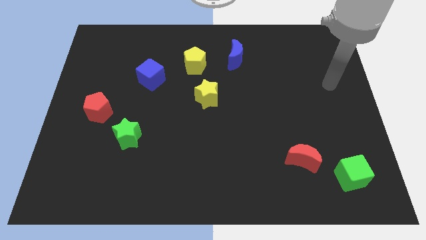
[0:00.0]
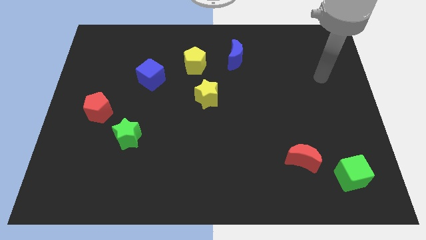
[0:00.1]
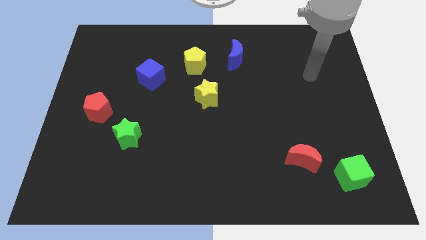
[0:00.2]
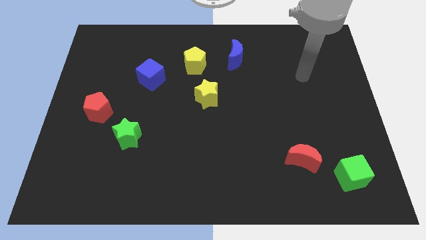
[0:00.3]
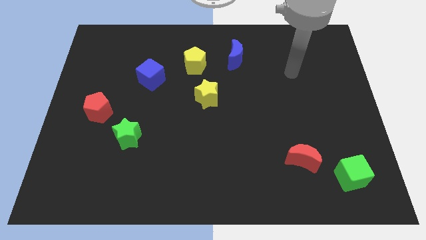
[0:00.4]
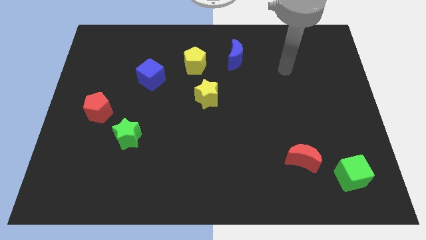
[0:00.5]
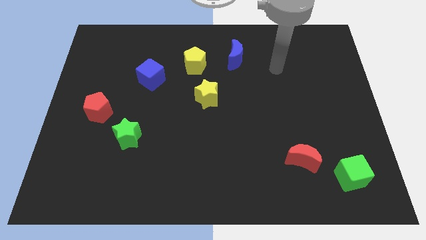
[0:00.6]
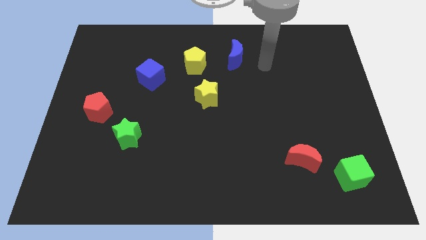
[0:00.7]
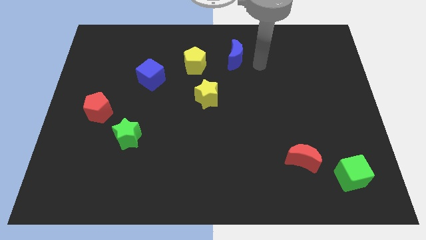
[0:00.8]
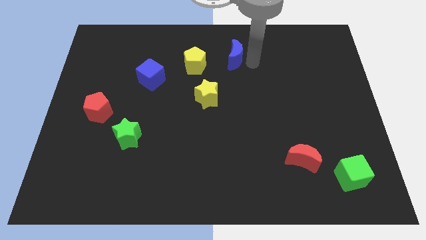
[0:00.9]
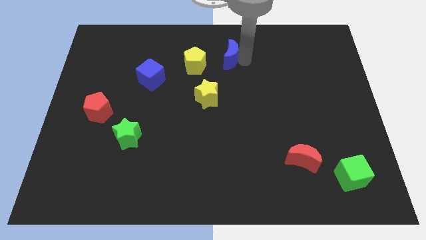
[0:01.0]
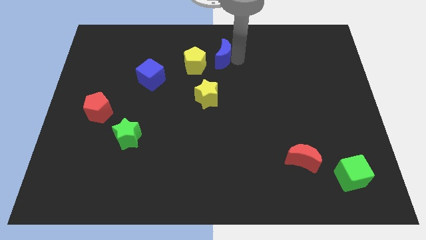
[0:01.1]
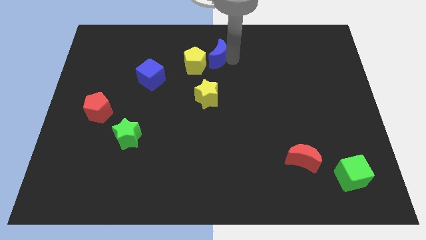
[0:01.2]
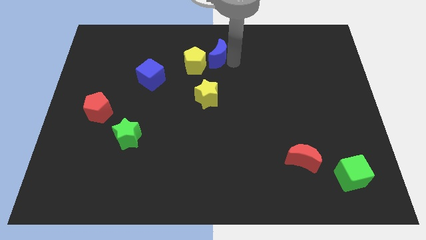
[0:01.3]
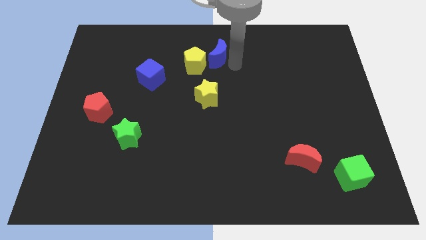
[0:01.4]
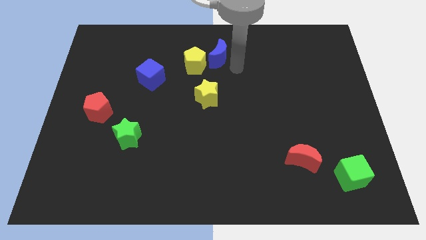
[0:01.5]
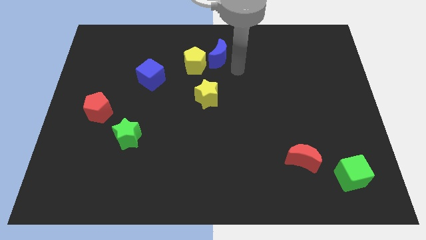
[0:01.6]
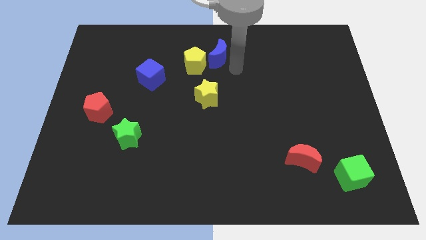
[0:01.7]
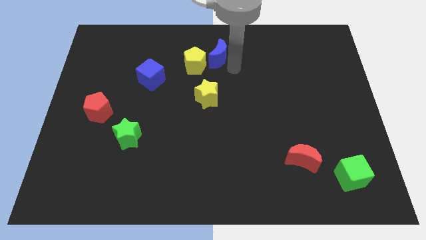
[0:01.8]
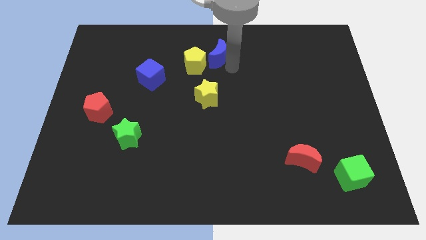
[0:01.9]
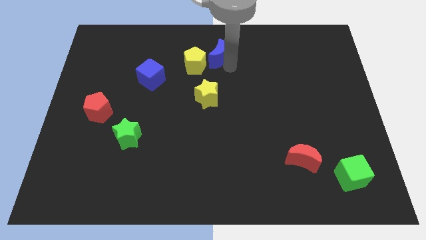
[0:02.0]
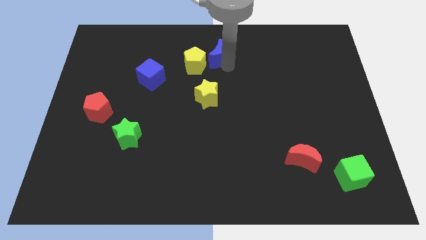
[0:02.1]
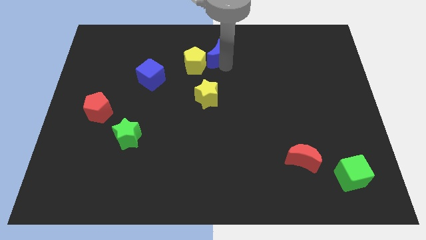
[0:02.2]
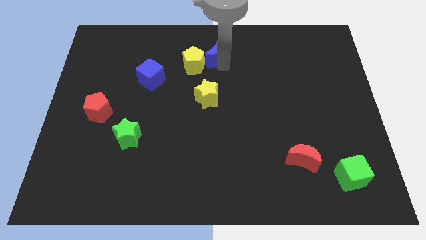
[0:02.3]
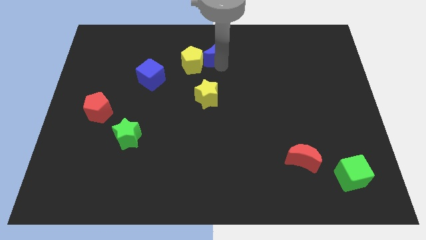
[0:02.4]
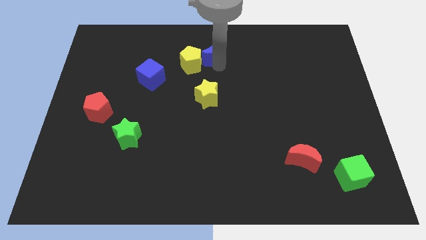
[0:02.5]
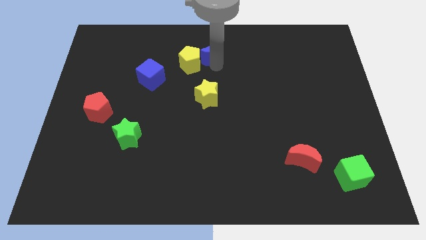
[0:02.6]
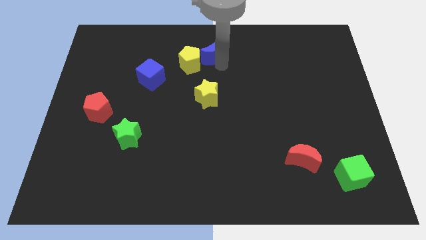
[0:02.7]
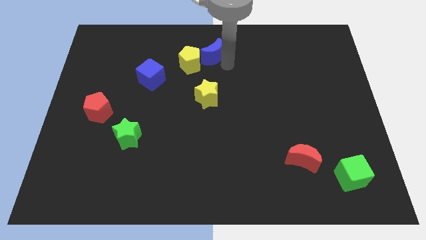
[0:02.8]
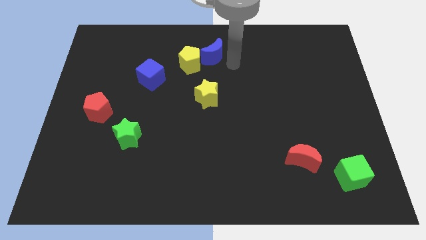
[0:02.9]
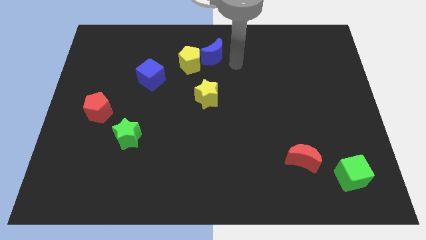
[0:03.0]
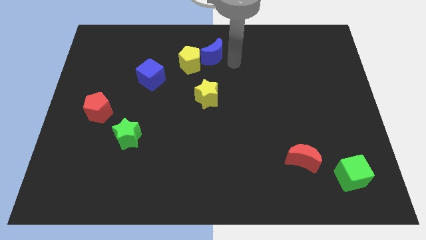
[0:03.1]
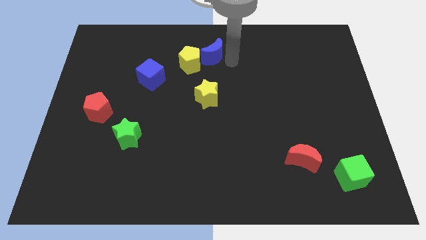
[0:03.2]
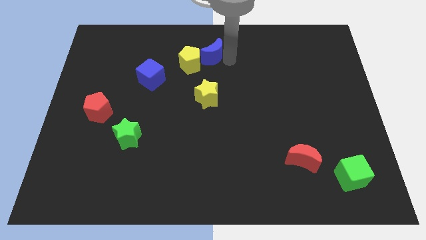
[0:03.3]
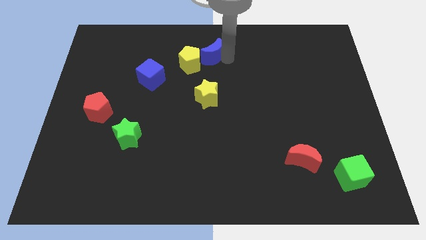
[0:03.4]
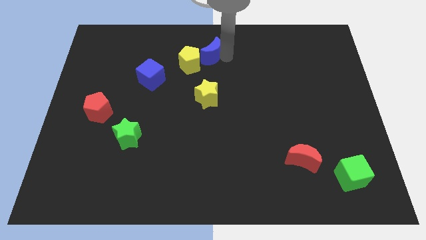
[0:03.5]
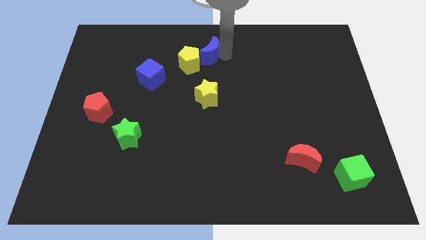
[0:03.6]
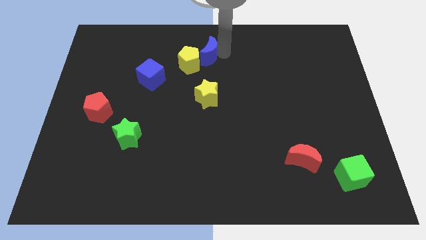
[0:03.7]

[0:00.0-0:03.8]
slightly push the blue moon left

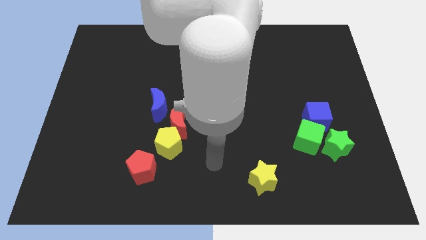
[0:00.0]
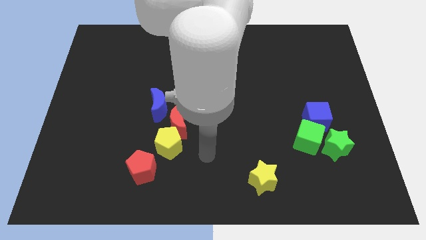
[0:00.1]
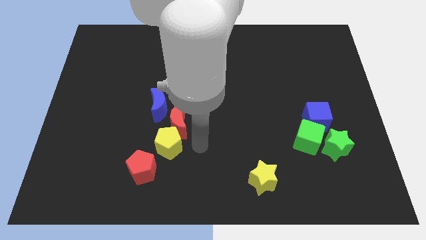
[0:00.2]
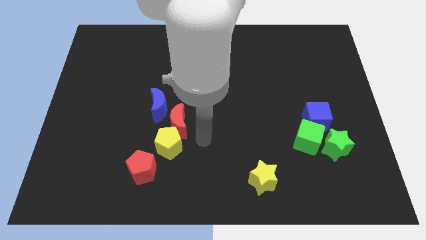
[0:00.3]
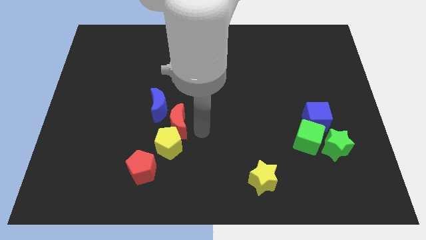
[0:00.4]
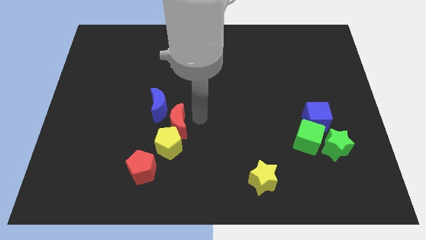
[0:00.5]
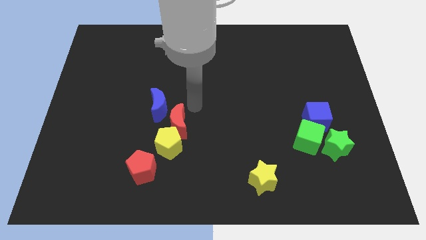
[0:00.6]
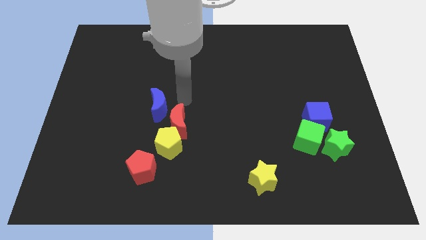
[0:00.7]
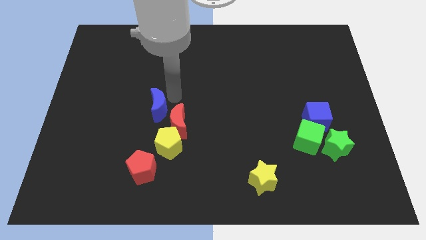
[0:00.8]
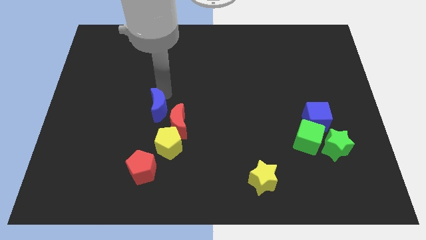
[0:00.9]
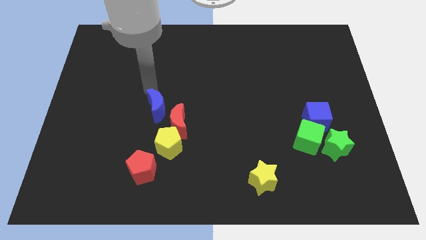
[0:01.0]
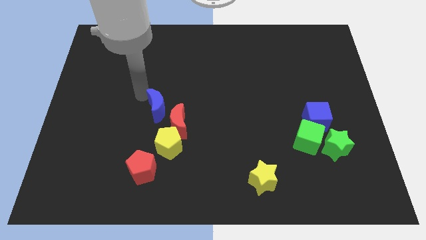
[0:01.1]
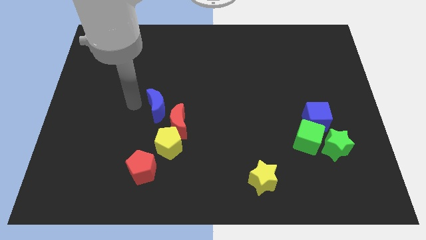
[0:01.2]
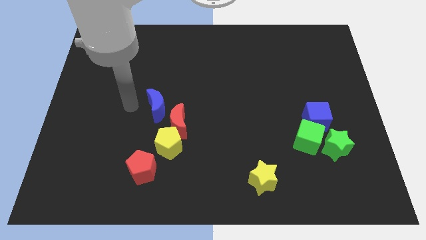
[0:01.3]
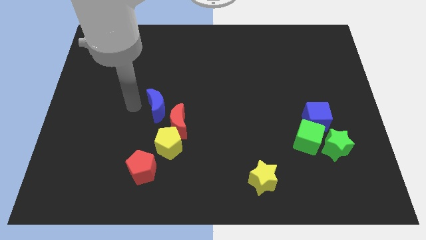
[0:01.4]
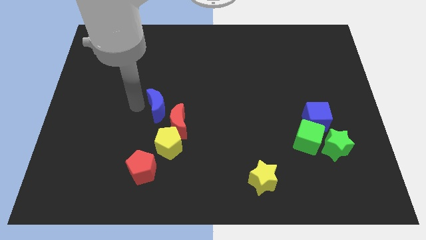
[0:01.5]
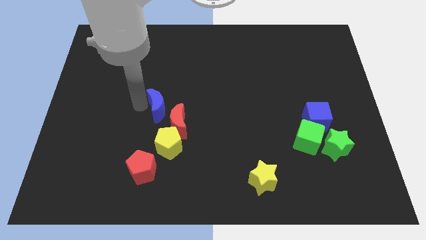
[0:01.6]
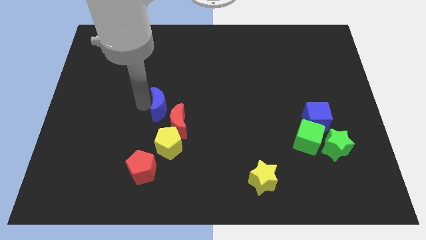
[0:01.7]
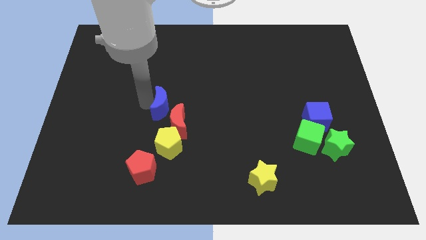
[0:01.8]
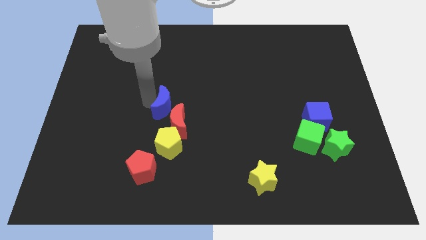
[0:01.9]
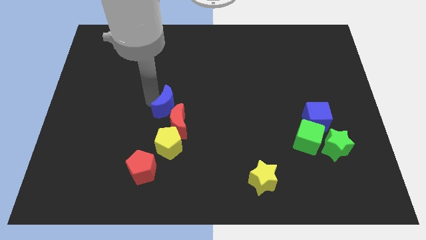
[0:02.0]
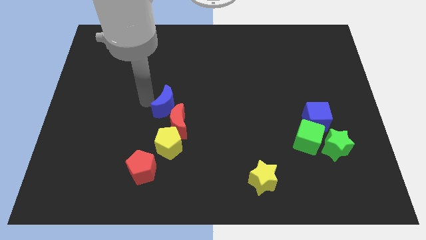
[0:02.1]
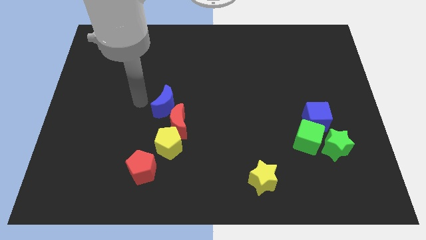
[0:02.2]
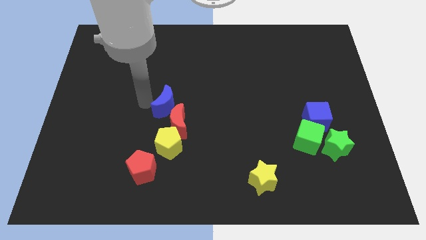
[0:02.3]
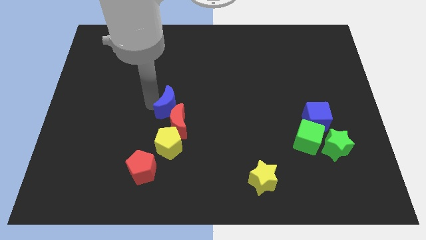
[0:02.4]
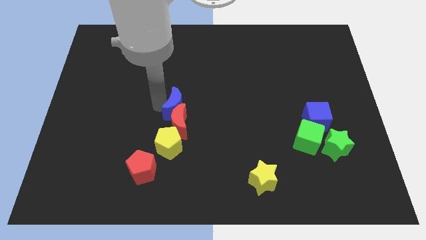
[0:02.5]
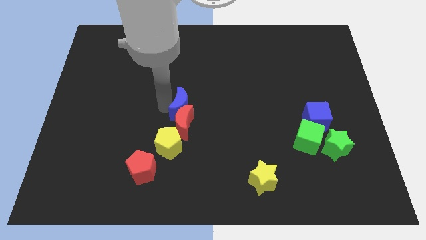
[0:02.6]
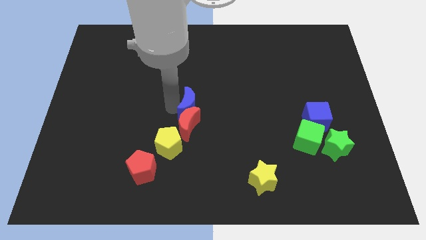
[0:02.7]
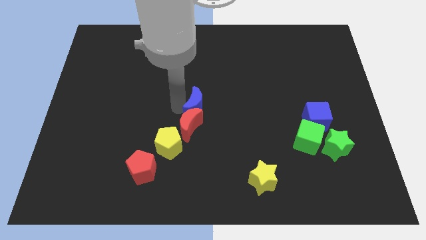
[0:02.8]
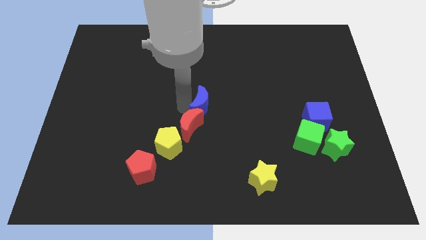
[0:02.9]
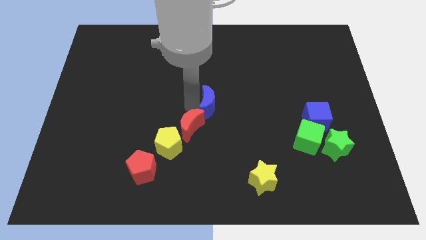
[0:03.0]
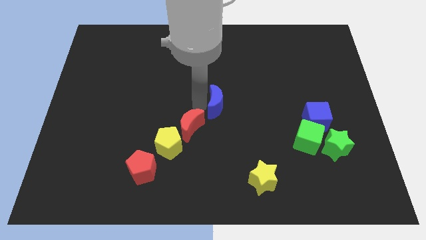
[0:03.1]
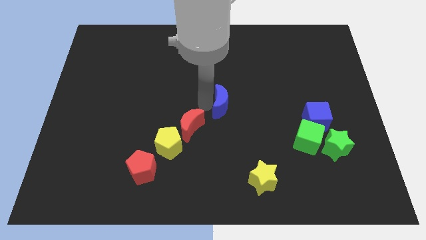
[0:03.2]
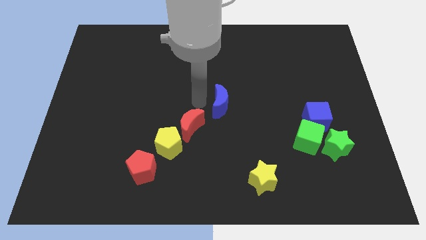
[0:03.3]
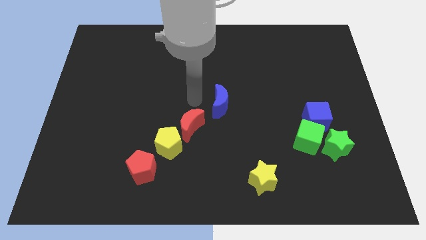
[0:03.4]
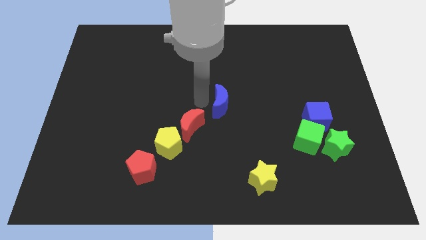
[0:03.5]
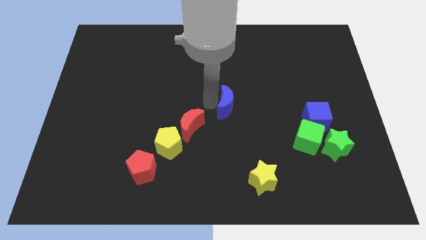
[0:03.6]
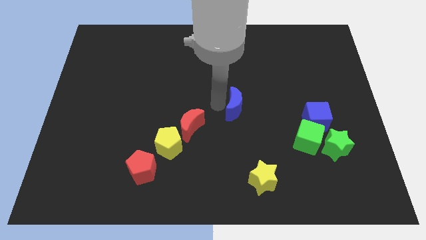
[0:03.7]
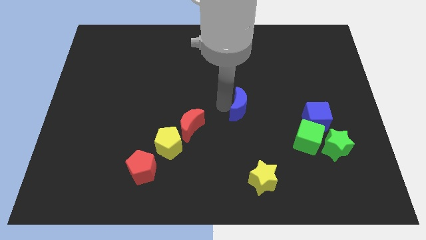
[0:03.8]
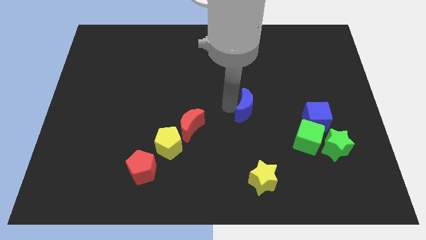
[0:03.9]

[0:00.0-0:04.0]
slide the blue moon right
